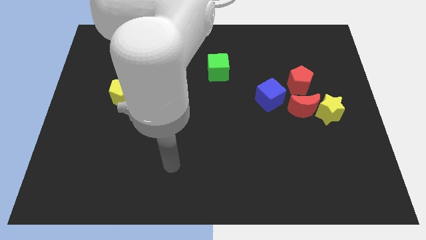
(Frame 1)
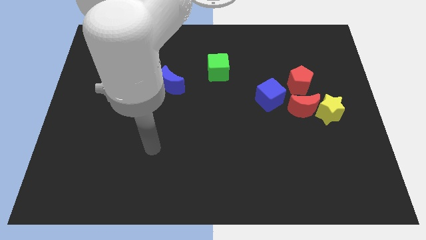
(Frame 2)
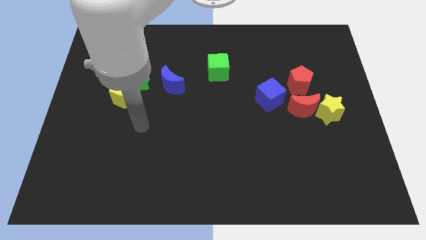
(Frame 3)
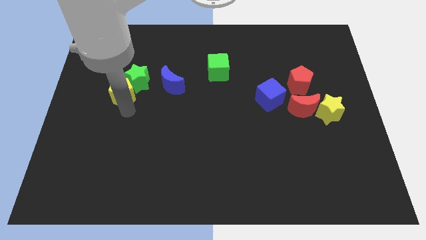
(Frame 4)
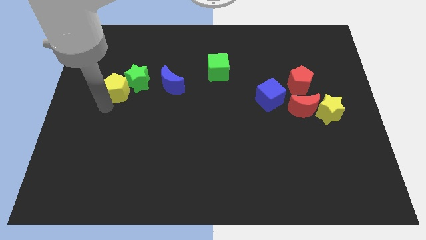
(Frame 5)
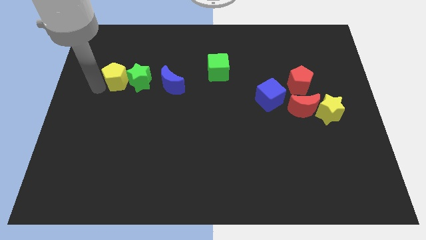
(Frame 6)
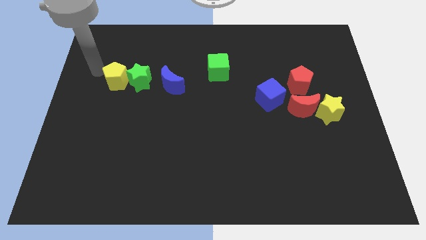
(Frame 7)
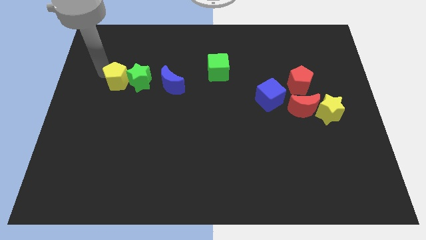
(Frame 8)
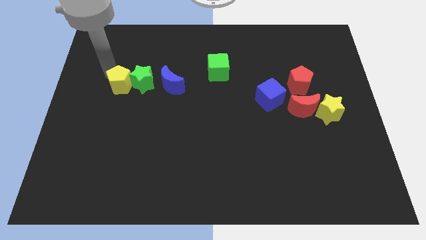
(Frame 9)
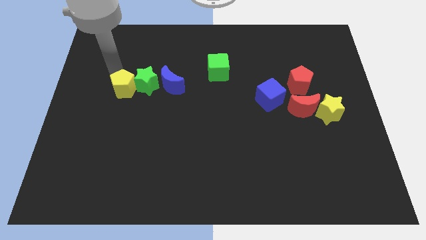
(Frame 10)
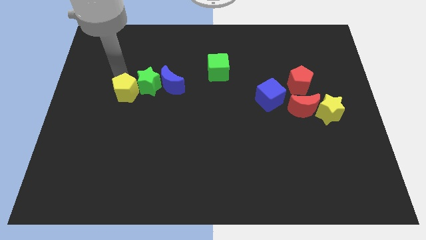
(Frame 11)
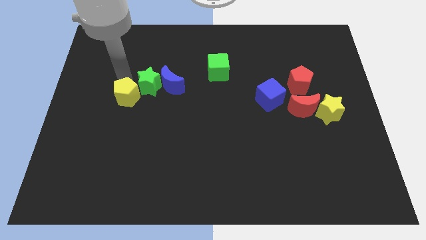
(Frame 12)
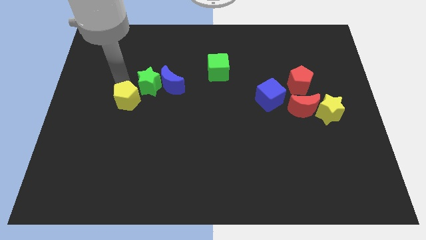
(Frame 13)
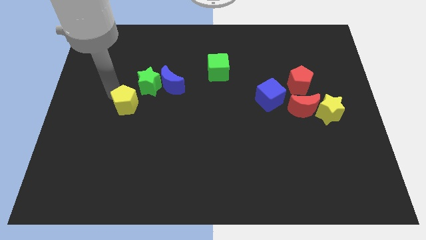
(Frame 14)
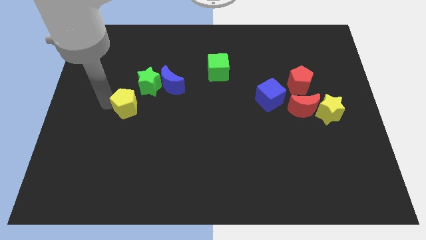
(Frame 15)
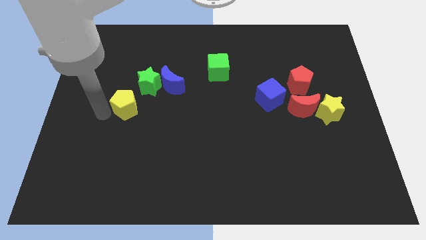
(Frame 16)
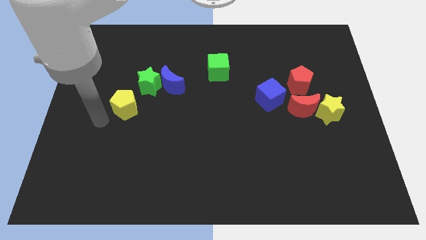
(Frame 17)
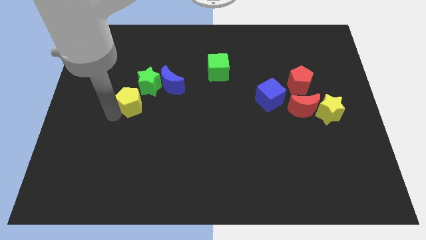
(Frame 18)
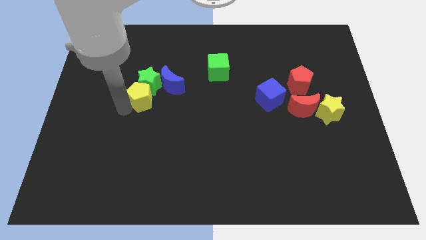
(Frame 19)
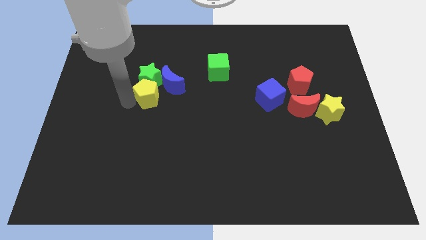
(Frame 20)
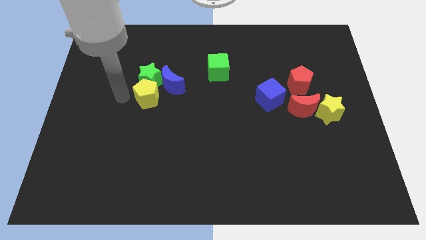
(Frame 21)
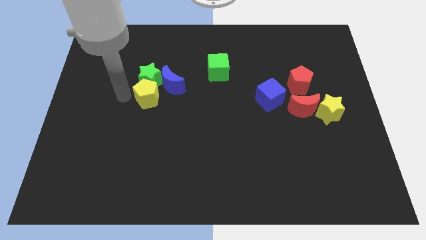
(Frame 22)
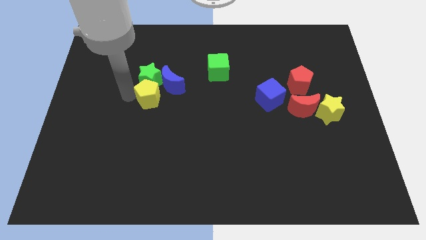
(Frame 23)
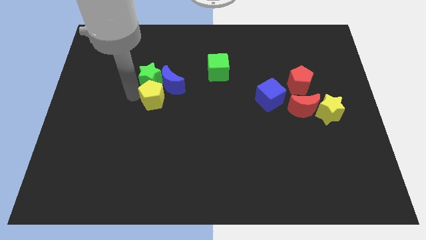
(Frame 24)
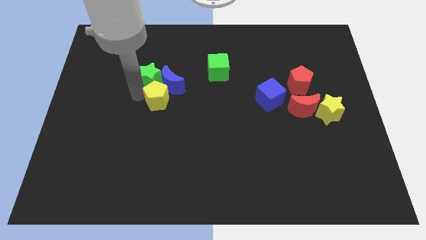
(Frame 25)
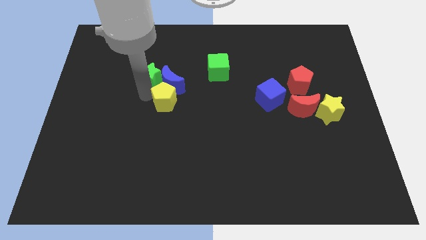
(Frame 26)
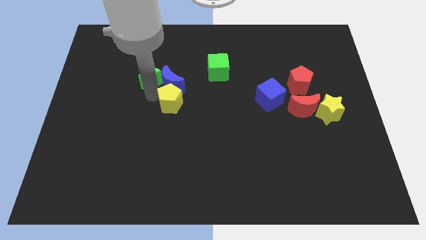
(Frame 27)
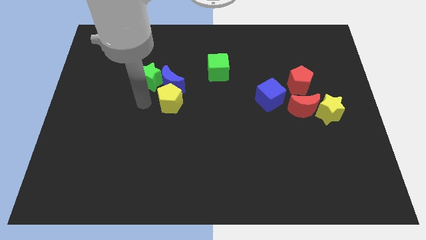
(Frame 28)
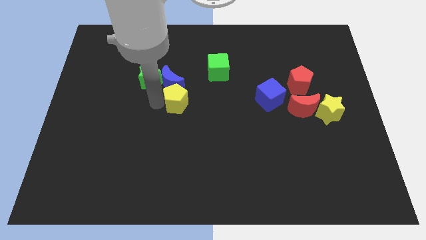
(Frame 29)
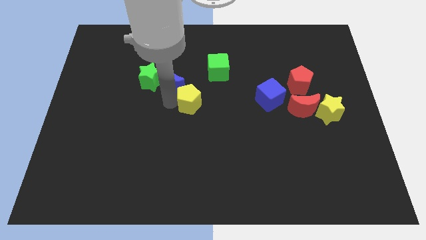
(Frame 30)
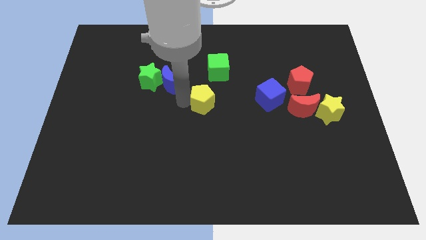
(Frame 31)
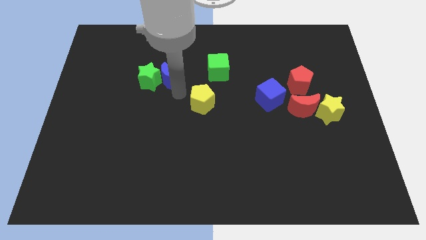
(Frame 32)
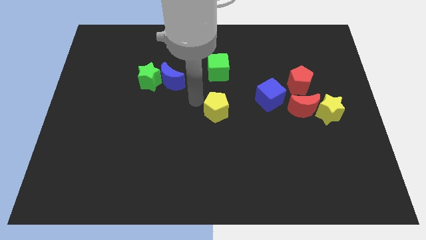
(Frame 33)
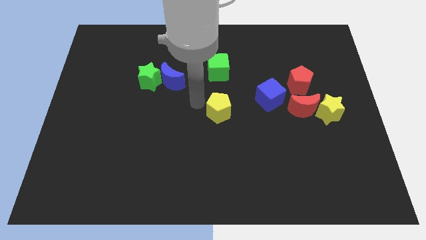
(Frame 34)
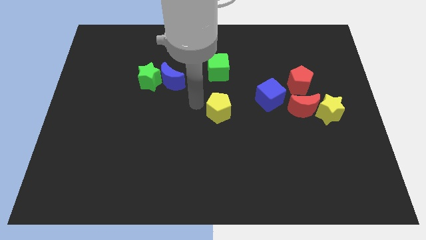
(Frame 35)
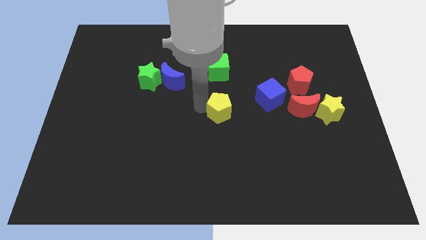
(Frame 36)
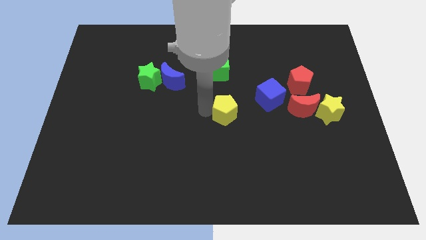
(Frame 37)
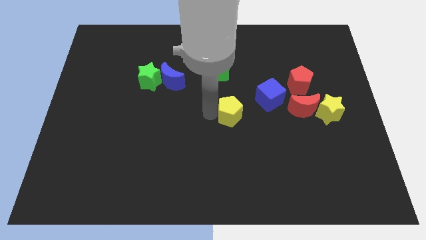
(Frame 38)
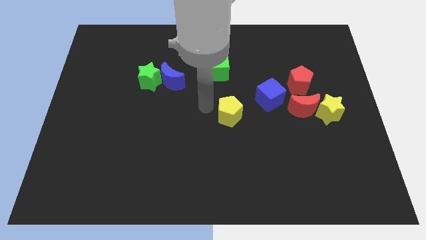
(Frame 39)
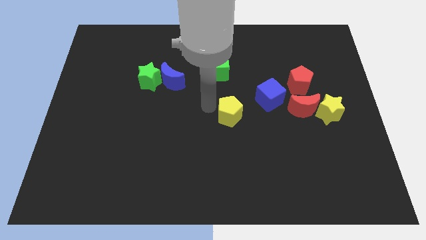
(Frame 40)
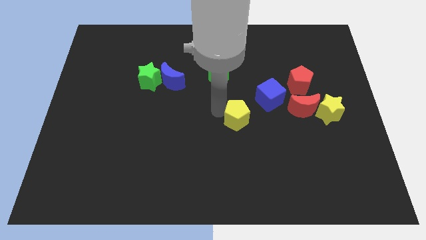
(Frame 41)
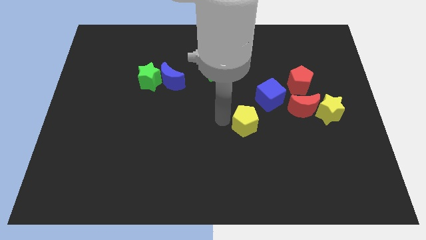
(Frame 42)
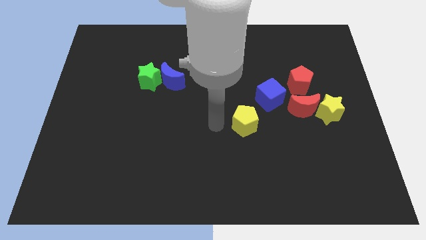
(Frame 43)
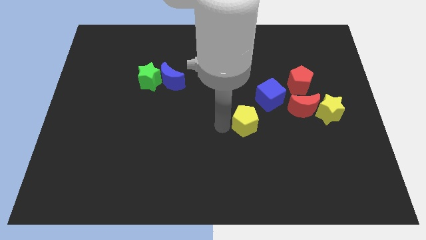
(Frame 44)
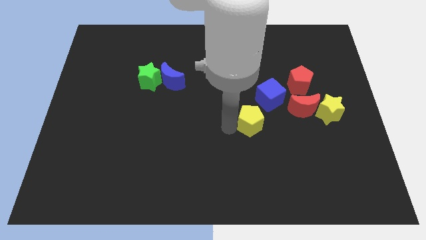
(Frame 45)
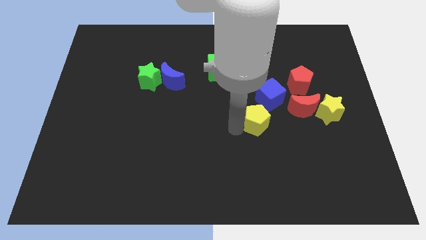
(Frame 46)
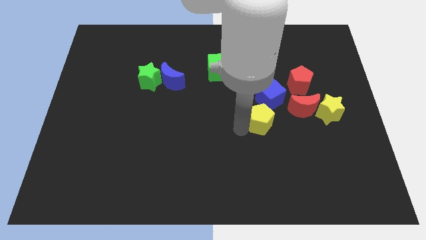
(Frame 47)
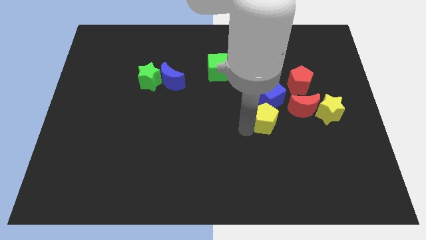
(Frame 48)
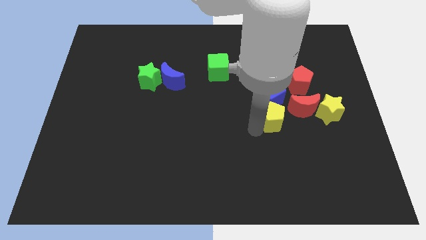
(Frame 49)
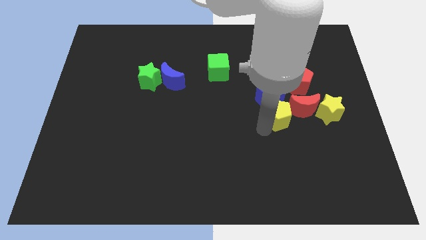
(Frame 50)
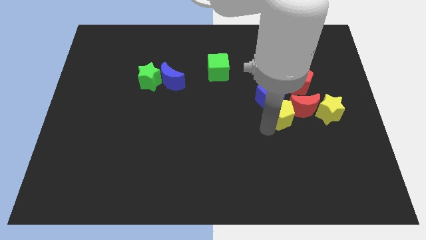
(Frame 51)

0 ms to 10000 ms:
push the yellow pentagon next to the red moon

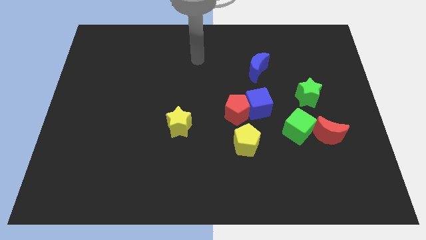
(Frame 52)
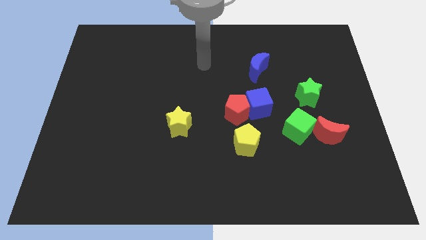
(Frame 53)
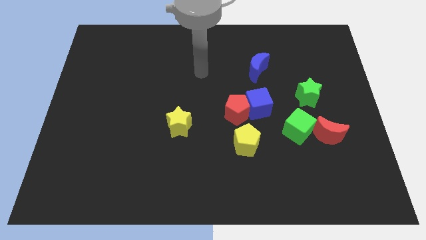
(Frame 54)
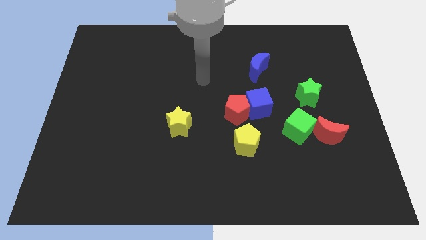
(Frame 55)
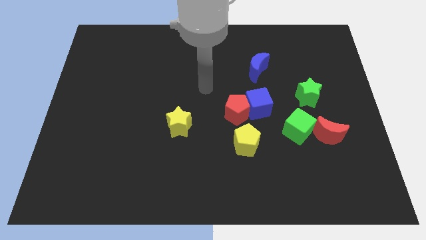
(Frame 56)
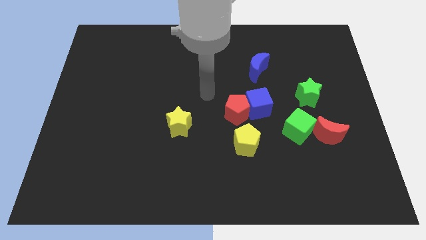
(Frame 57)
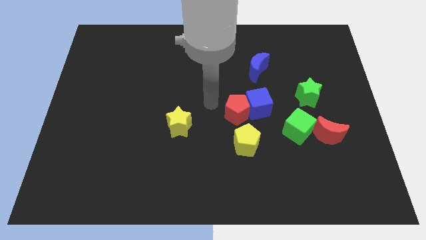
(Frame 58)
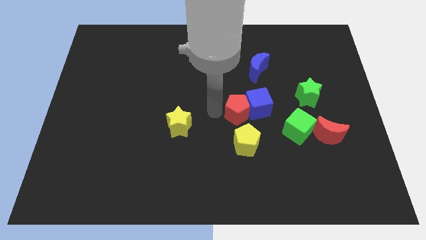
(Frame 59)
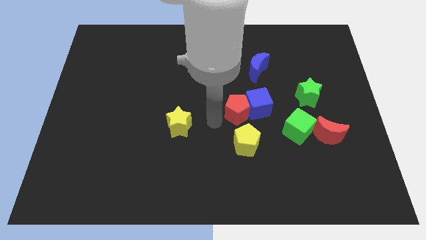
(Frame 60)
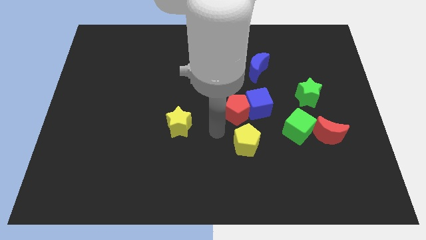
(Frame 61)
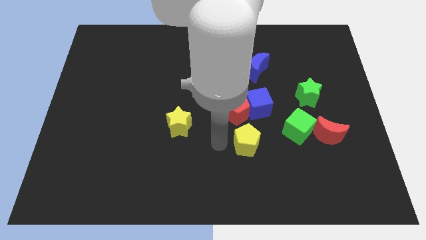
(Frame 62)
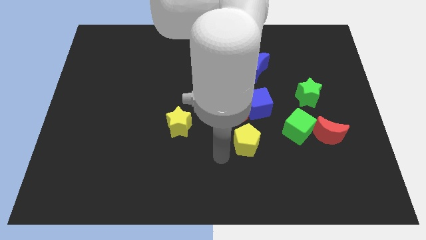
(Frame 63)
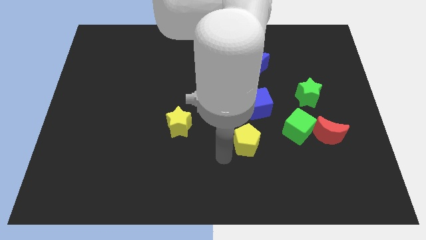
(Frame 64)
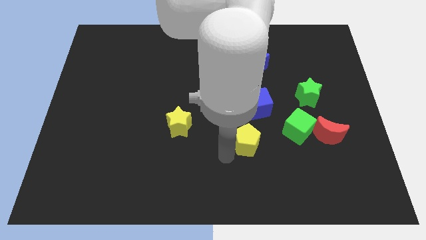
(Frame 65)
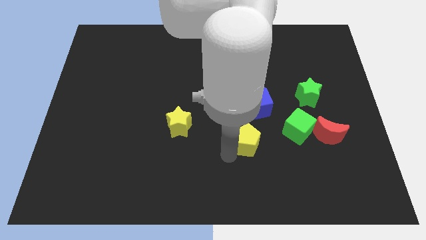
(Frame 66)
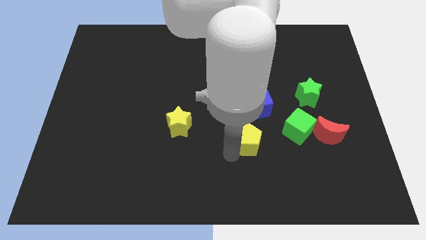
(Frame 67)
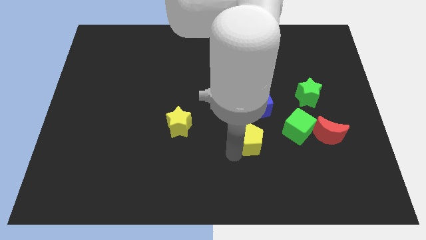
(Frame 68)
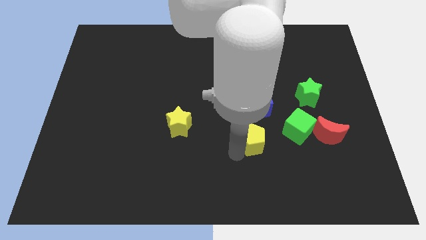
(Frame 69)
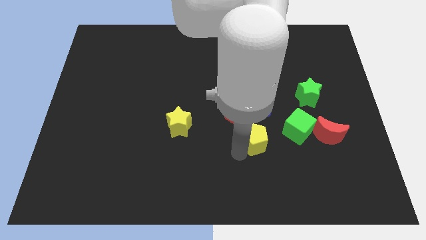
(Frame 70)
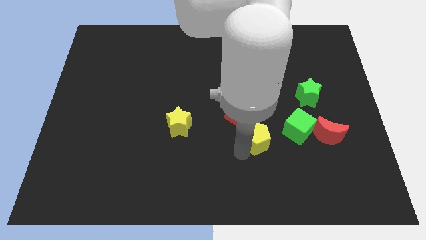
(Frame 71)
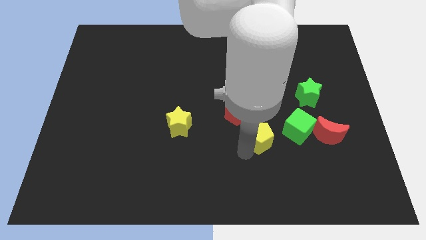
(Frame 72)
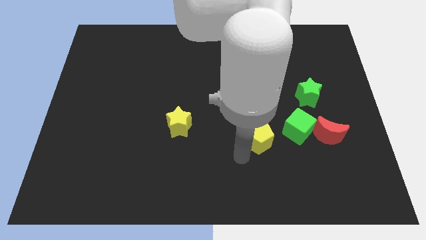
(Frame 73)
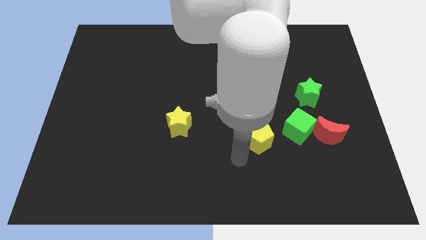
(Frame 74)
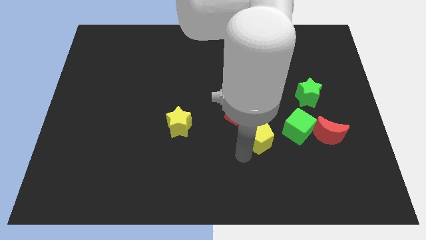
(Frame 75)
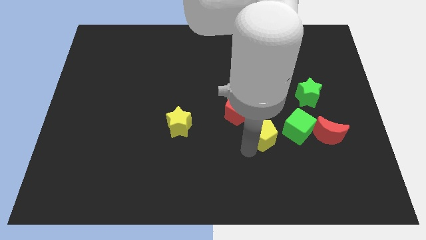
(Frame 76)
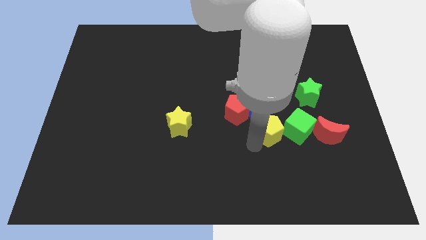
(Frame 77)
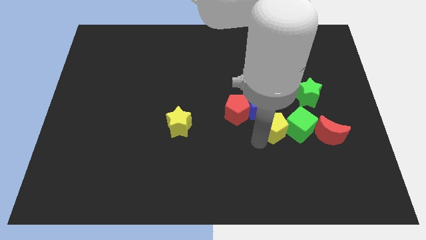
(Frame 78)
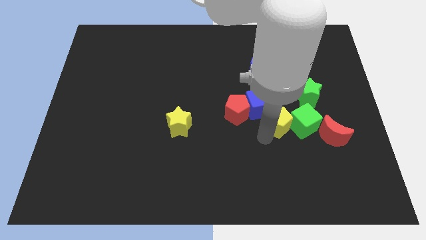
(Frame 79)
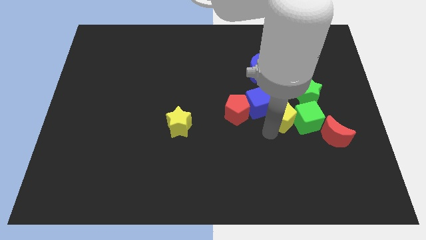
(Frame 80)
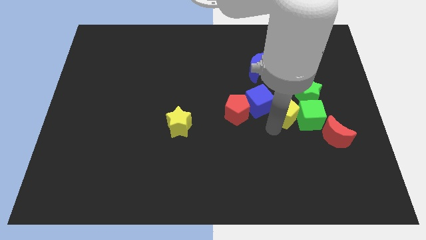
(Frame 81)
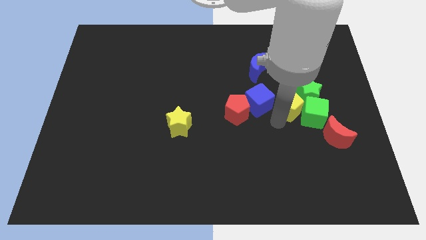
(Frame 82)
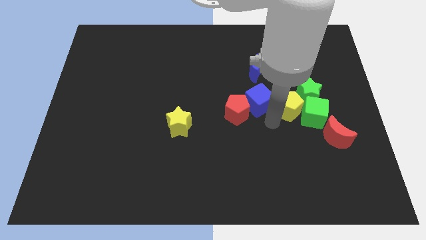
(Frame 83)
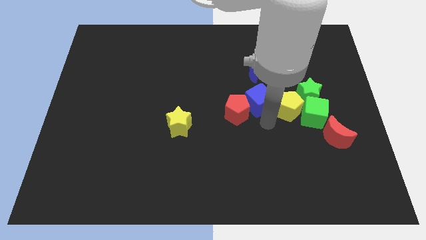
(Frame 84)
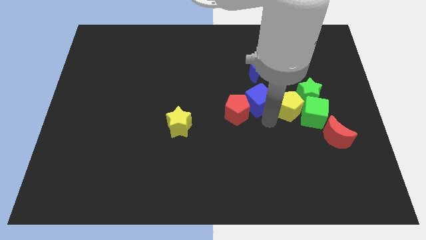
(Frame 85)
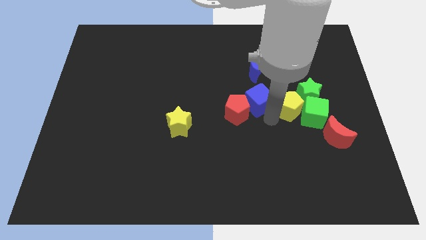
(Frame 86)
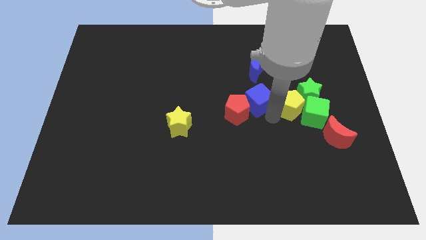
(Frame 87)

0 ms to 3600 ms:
slide the yellow pentagon towards the green star
